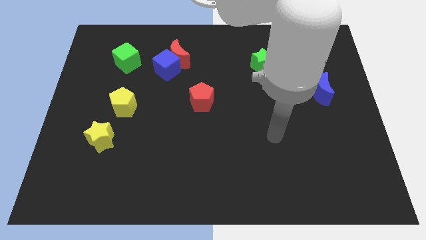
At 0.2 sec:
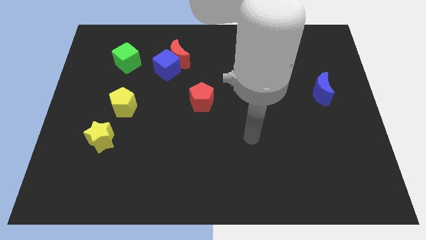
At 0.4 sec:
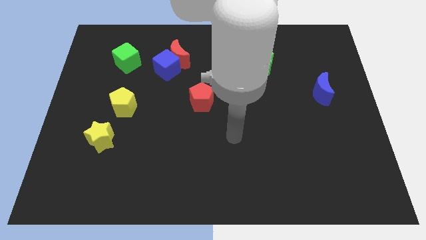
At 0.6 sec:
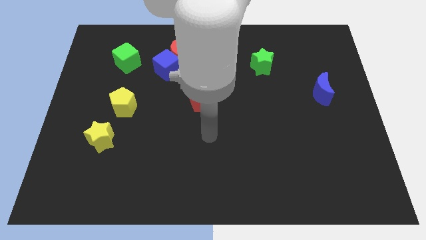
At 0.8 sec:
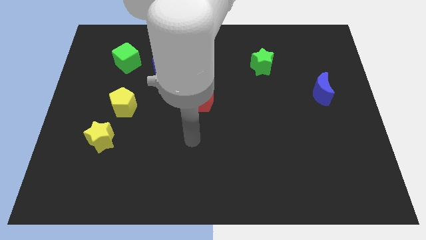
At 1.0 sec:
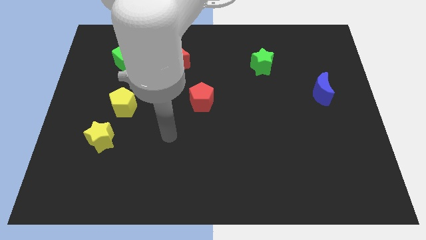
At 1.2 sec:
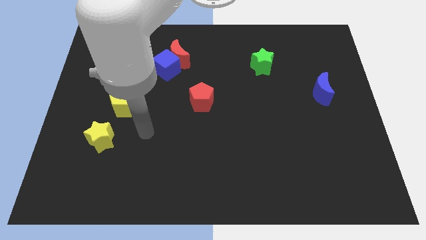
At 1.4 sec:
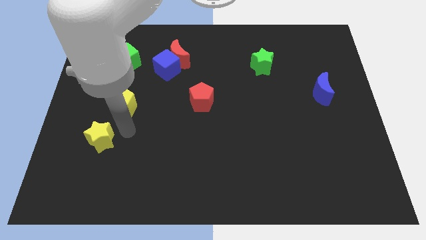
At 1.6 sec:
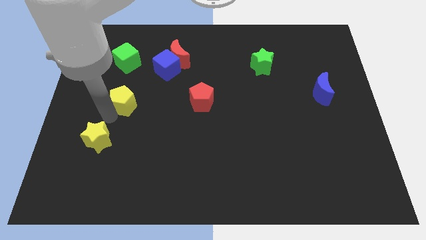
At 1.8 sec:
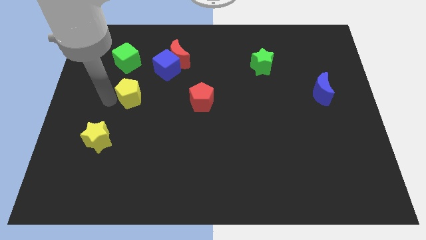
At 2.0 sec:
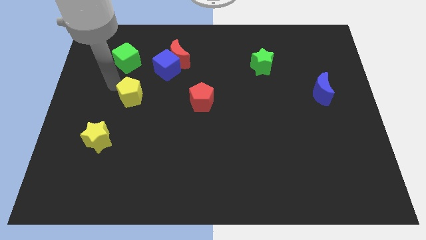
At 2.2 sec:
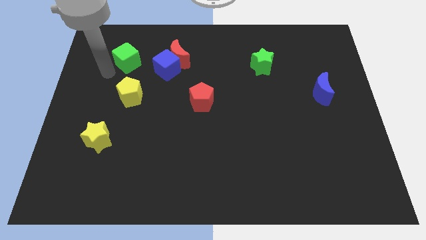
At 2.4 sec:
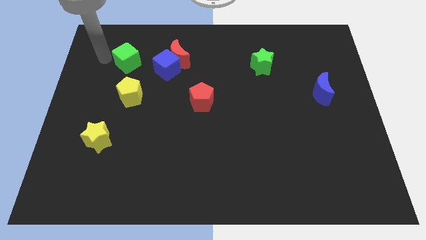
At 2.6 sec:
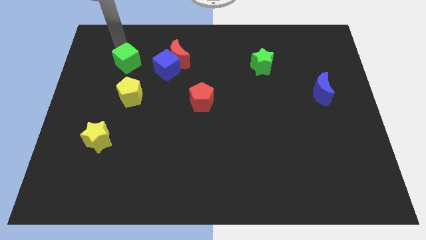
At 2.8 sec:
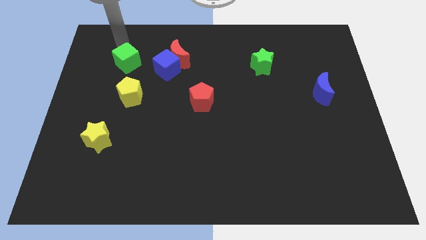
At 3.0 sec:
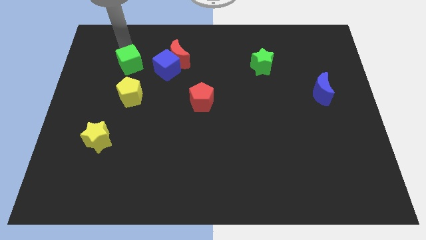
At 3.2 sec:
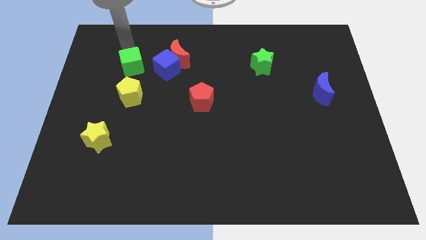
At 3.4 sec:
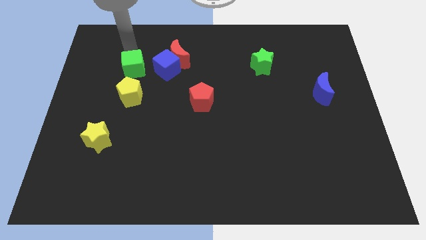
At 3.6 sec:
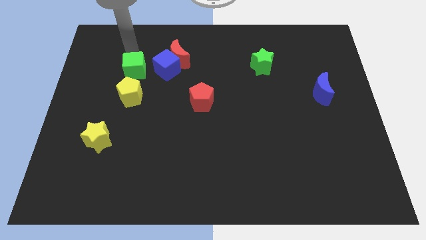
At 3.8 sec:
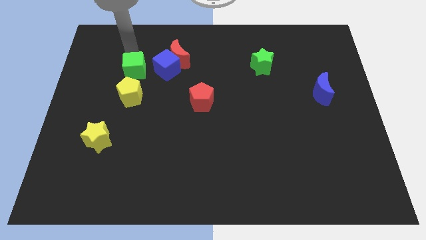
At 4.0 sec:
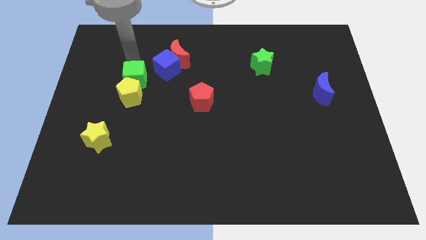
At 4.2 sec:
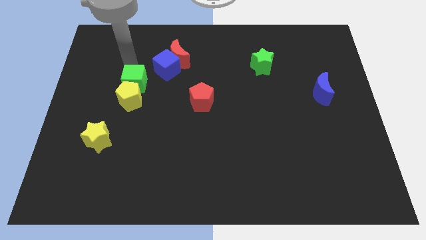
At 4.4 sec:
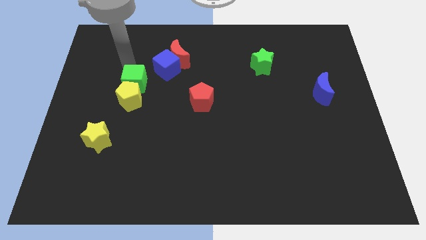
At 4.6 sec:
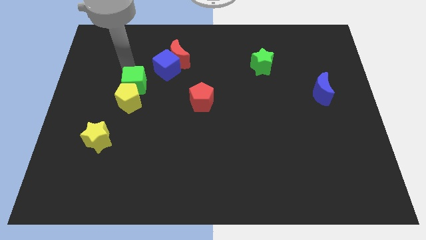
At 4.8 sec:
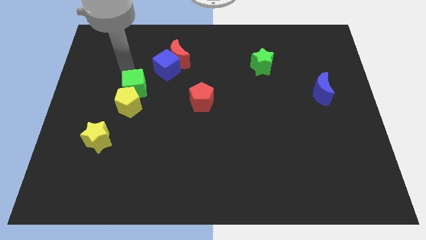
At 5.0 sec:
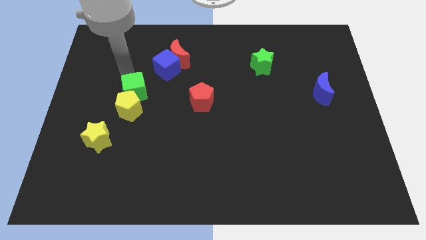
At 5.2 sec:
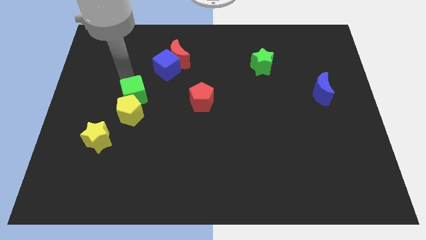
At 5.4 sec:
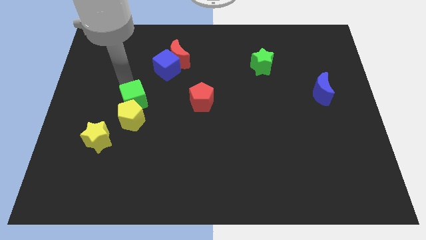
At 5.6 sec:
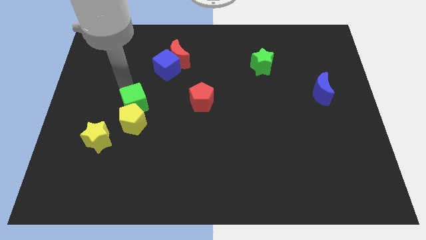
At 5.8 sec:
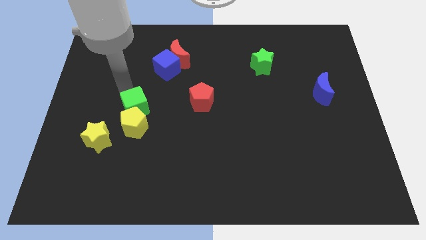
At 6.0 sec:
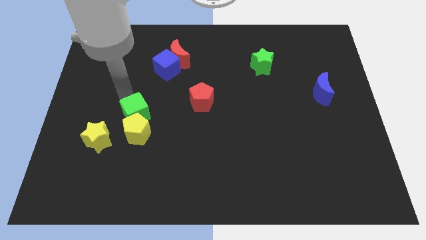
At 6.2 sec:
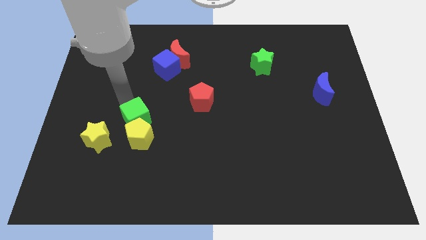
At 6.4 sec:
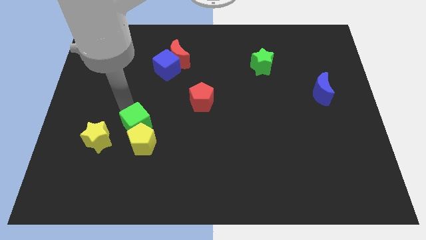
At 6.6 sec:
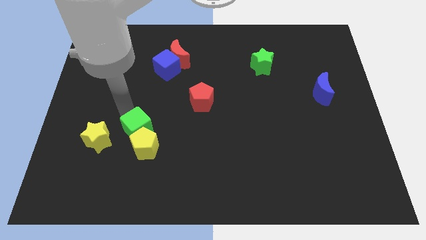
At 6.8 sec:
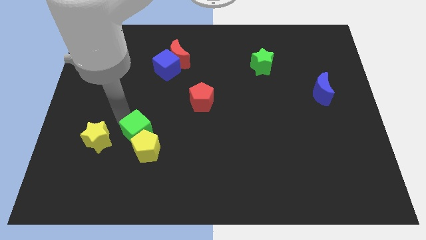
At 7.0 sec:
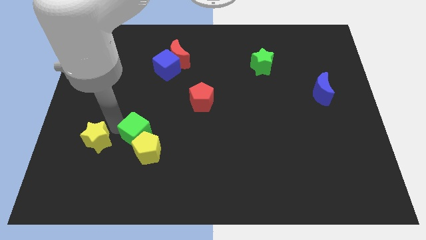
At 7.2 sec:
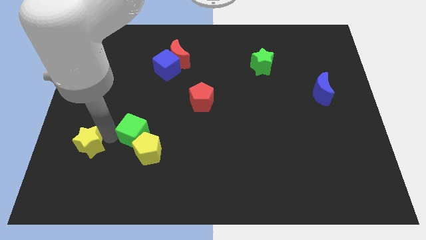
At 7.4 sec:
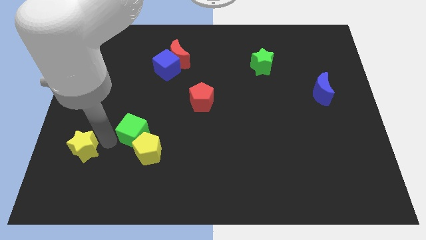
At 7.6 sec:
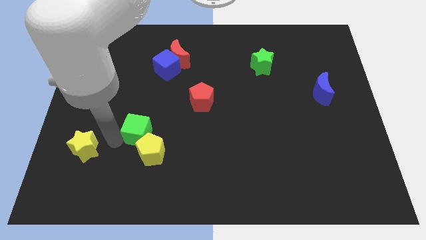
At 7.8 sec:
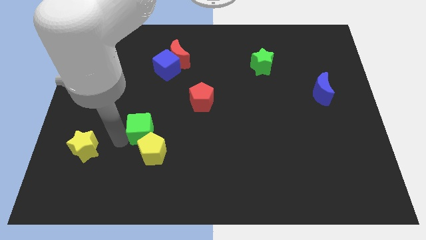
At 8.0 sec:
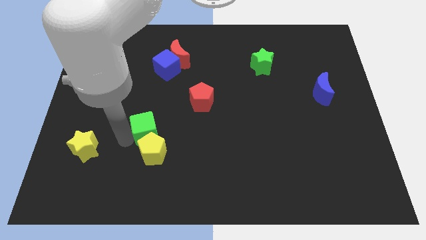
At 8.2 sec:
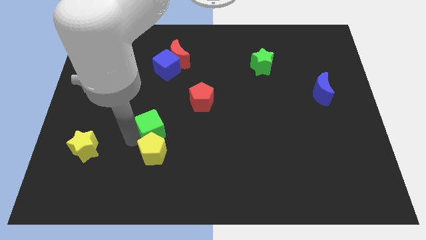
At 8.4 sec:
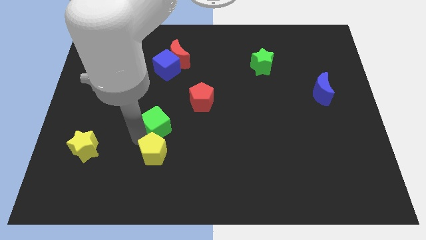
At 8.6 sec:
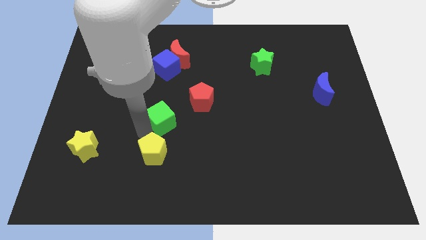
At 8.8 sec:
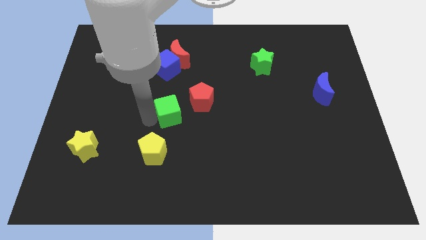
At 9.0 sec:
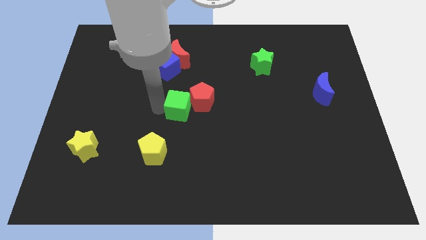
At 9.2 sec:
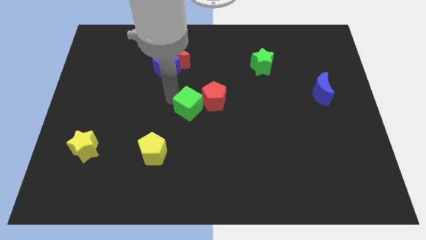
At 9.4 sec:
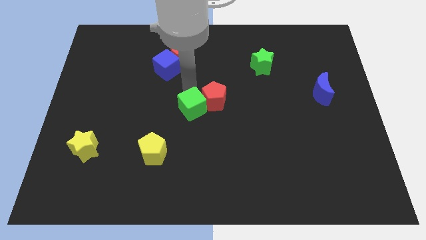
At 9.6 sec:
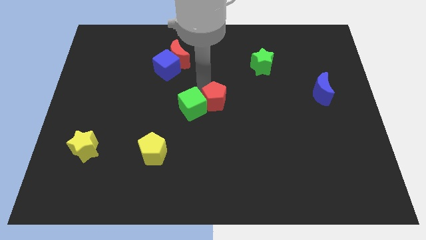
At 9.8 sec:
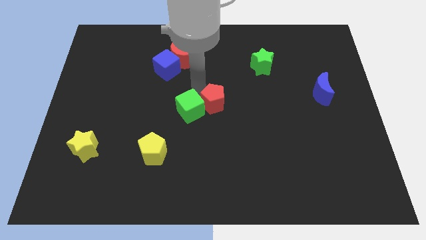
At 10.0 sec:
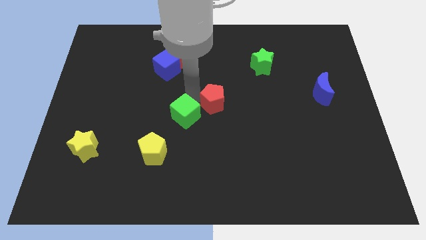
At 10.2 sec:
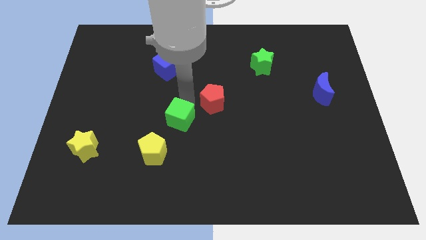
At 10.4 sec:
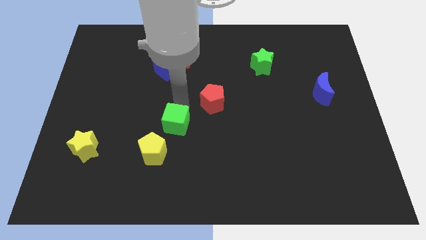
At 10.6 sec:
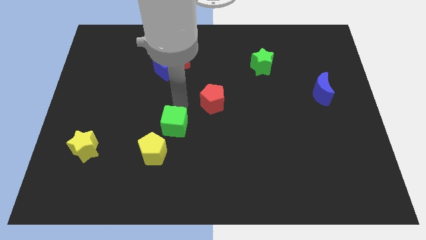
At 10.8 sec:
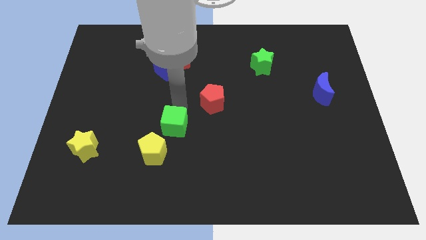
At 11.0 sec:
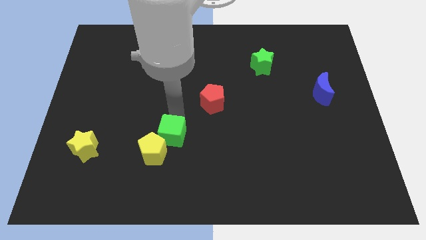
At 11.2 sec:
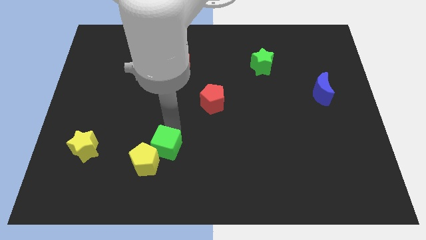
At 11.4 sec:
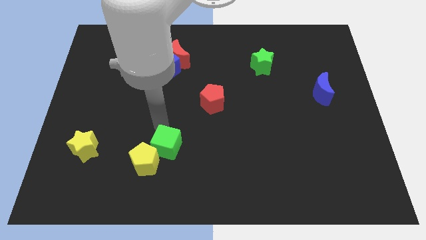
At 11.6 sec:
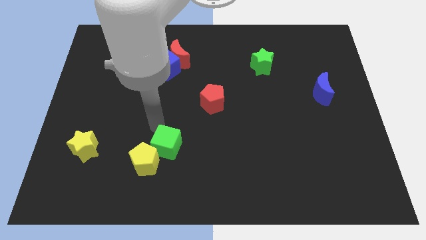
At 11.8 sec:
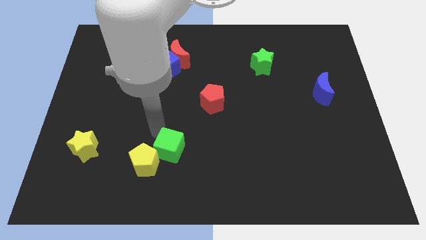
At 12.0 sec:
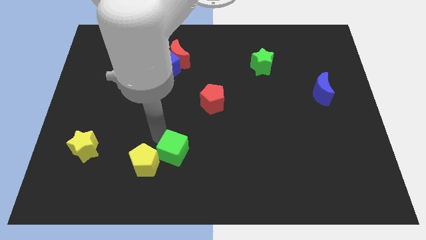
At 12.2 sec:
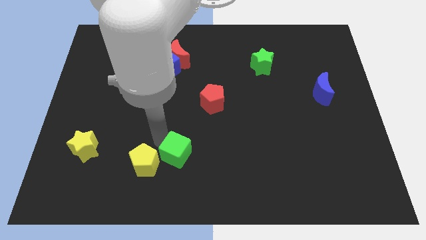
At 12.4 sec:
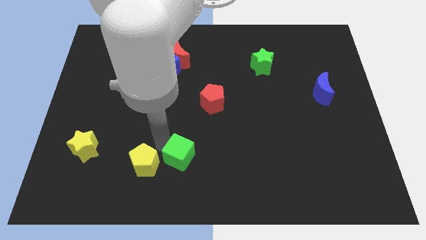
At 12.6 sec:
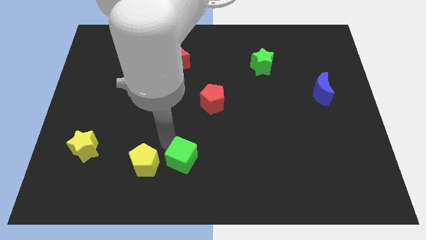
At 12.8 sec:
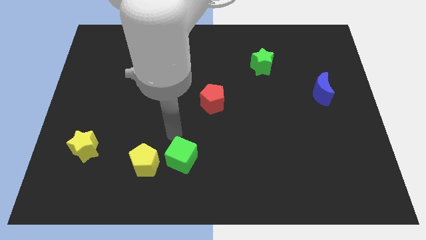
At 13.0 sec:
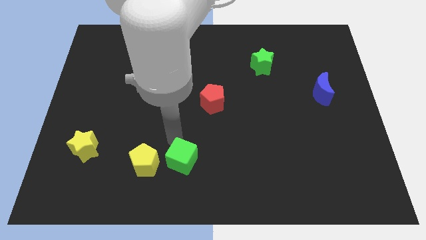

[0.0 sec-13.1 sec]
slide the green cube to the bottom
